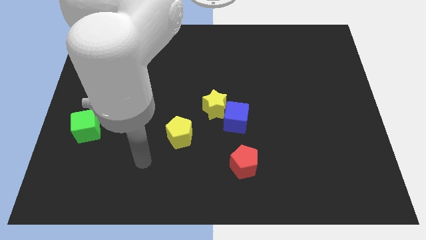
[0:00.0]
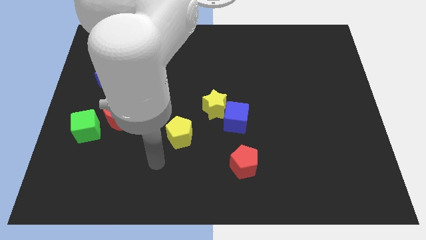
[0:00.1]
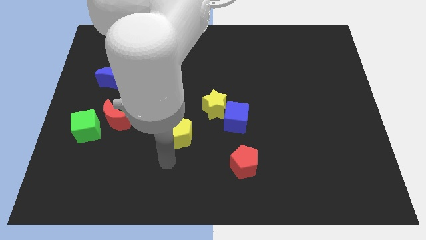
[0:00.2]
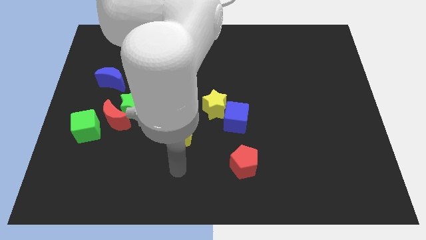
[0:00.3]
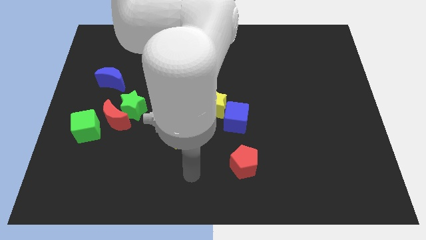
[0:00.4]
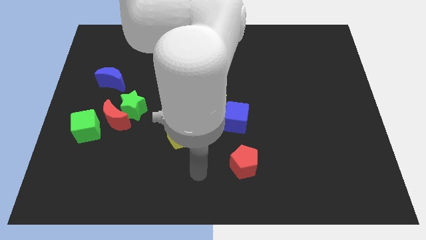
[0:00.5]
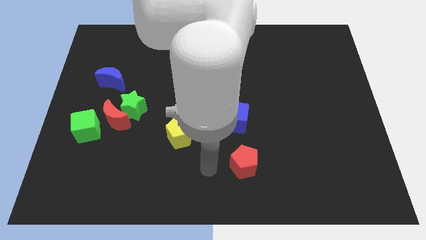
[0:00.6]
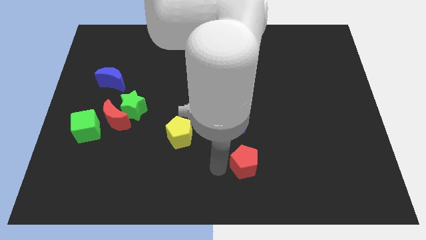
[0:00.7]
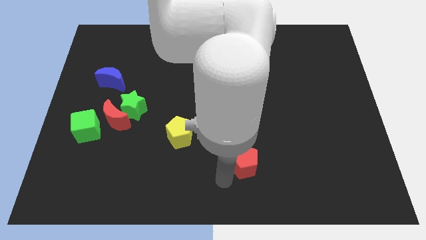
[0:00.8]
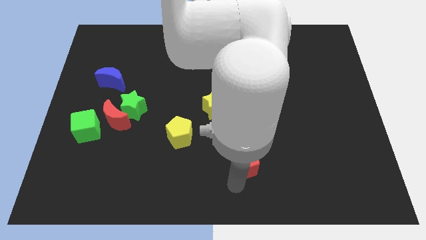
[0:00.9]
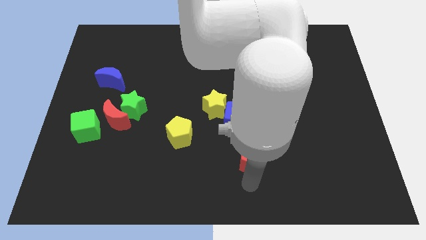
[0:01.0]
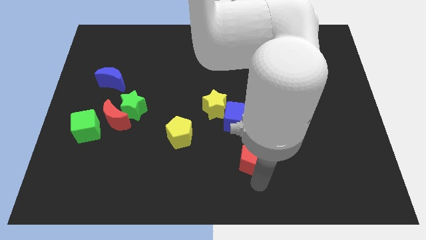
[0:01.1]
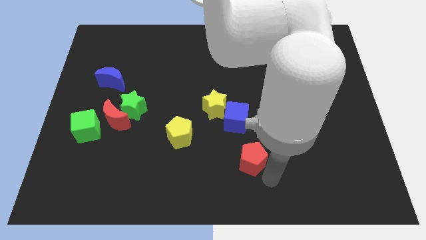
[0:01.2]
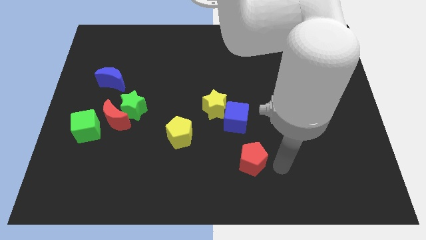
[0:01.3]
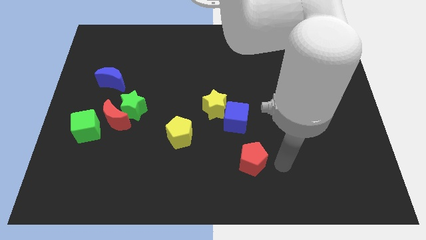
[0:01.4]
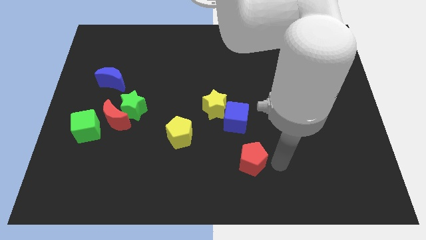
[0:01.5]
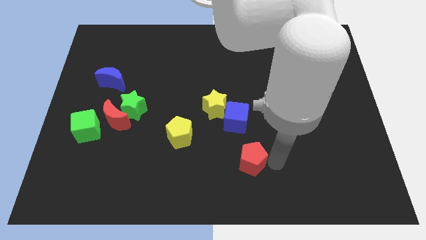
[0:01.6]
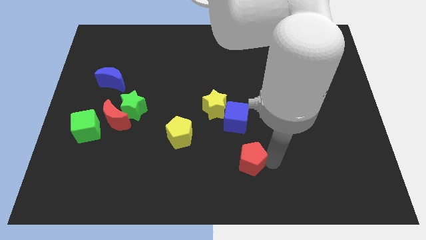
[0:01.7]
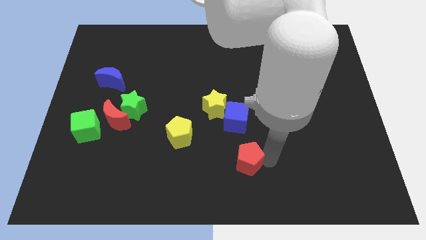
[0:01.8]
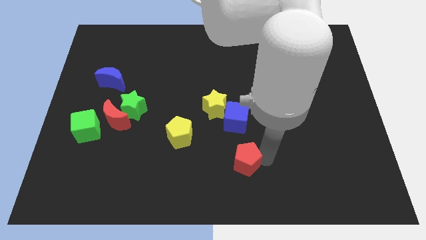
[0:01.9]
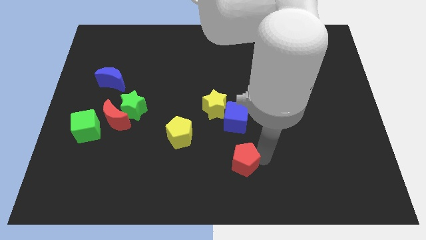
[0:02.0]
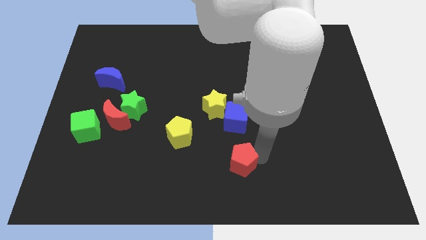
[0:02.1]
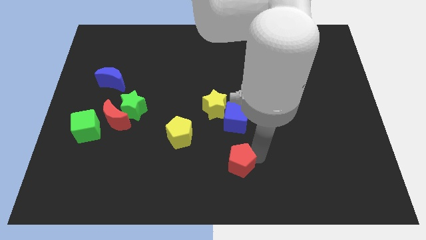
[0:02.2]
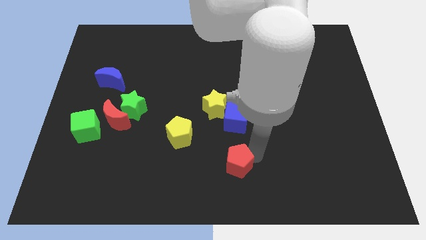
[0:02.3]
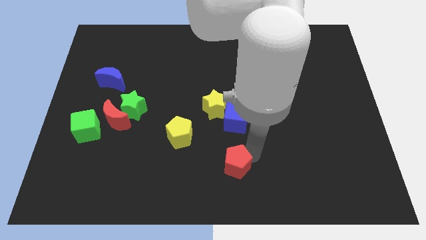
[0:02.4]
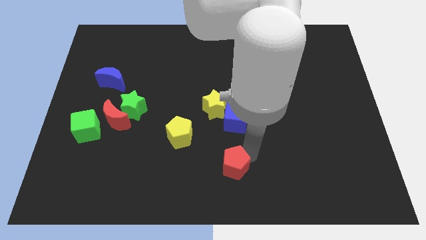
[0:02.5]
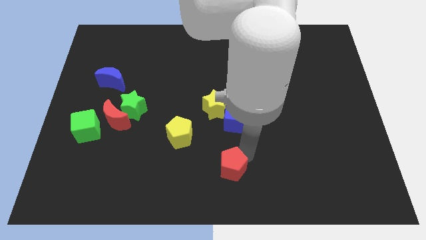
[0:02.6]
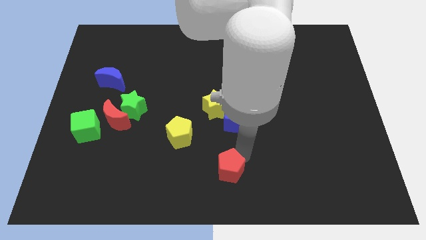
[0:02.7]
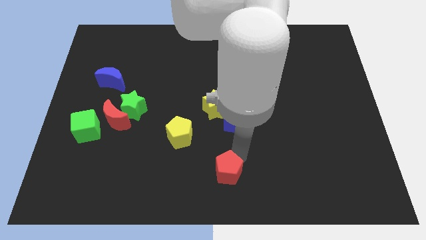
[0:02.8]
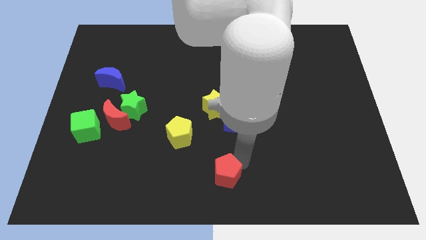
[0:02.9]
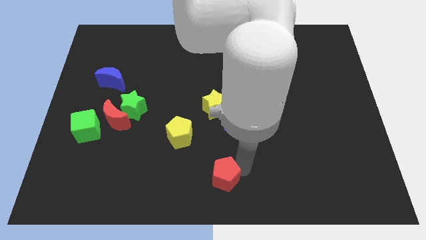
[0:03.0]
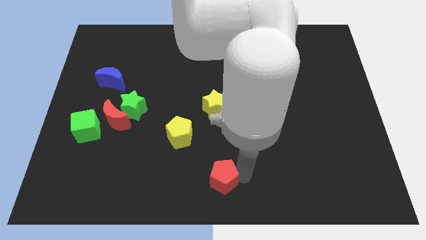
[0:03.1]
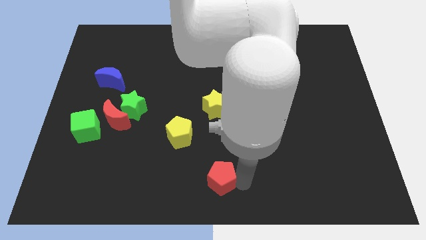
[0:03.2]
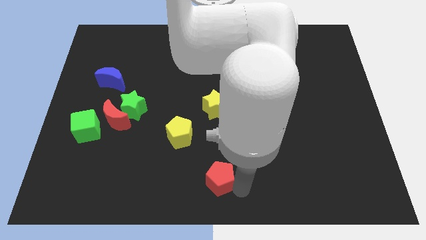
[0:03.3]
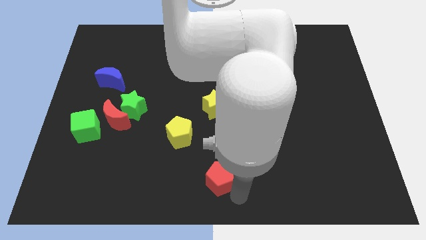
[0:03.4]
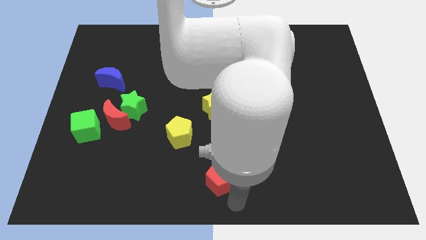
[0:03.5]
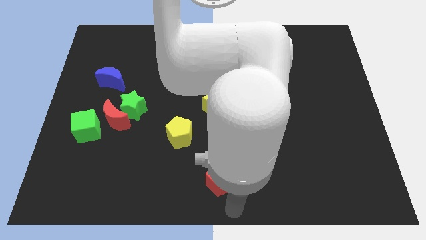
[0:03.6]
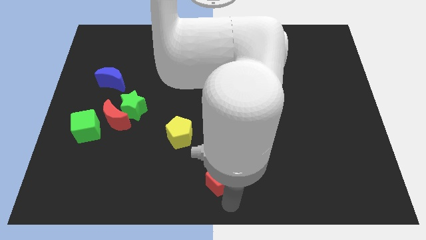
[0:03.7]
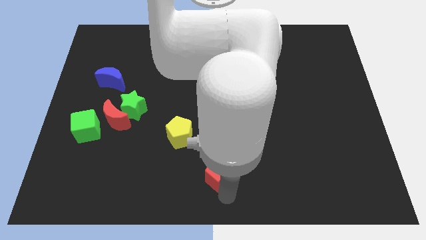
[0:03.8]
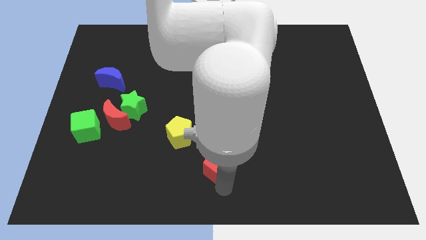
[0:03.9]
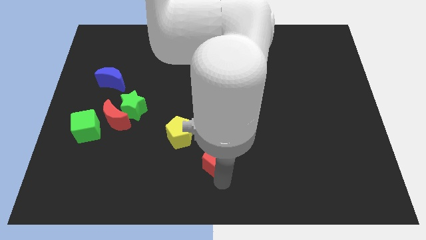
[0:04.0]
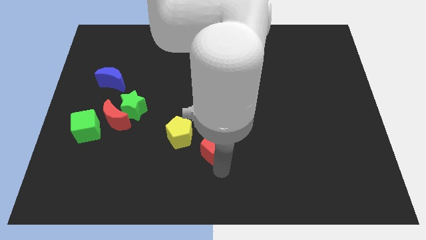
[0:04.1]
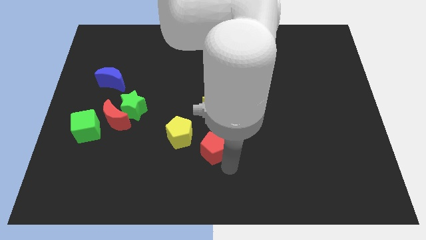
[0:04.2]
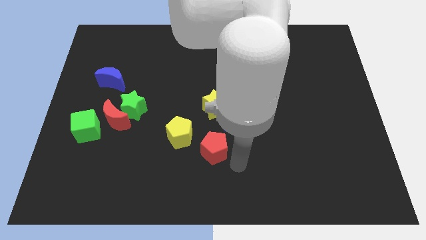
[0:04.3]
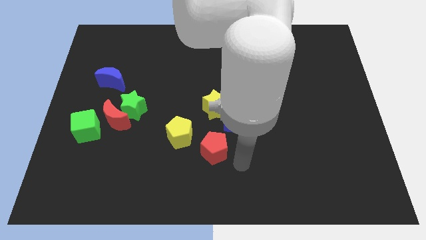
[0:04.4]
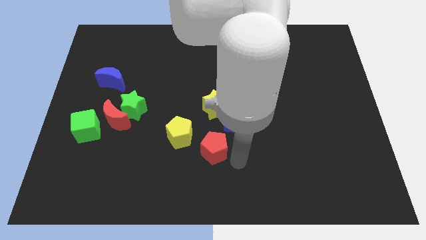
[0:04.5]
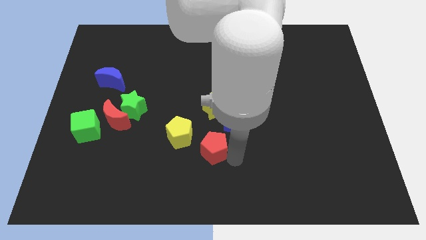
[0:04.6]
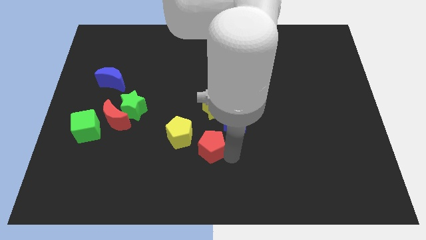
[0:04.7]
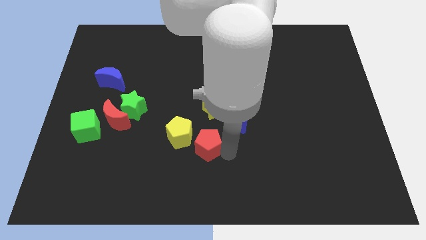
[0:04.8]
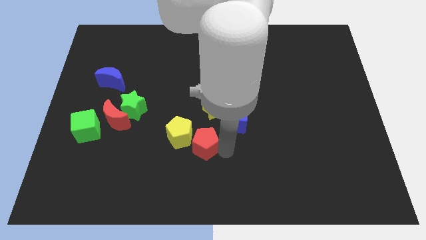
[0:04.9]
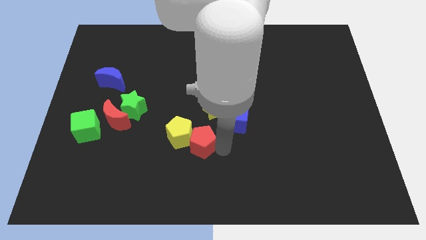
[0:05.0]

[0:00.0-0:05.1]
push the red pentagon close to the yellow pentagon

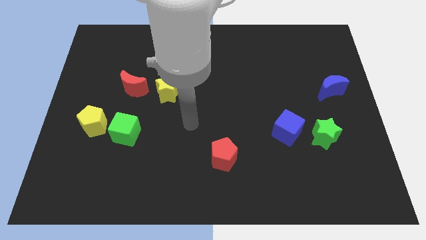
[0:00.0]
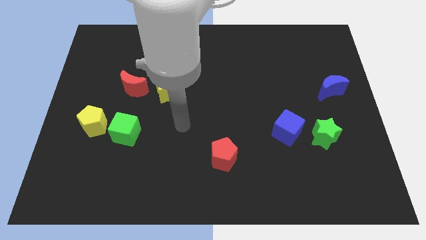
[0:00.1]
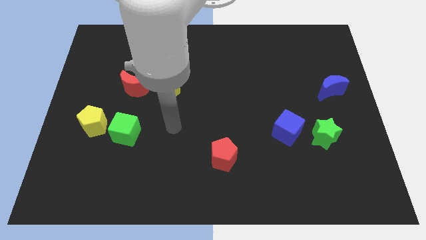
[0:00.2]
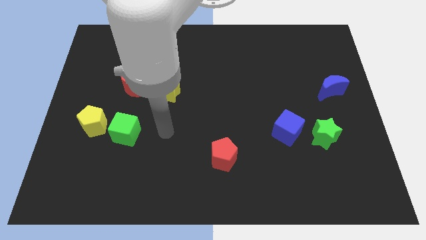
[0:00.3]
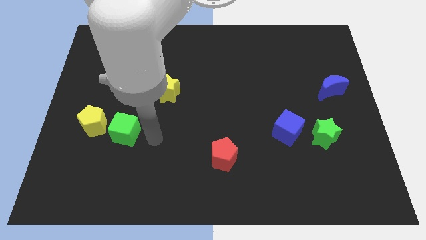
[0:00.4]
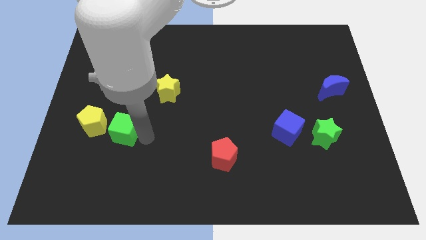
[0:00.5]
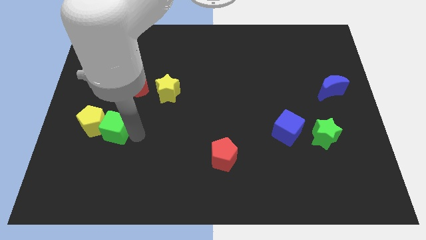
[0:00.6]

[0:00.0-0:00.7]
put the green cube close to the yellow pentagon

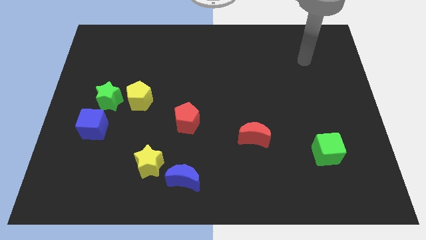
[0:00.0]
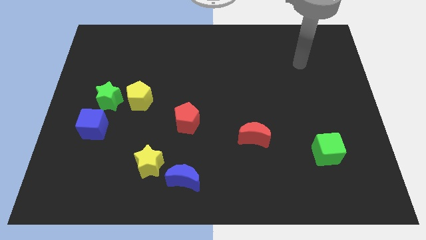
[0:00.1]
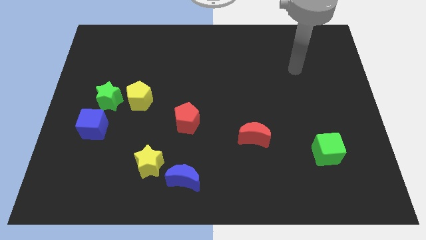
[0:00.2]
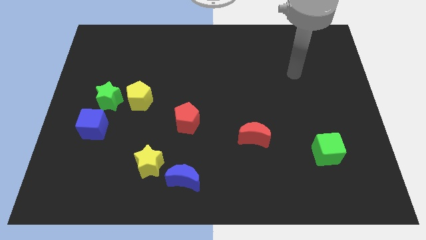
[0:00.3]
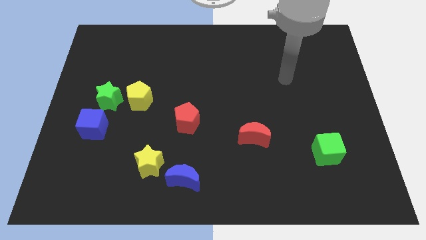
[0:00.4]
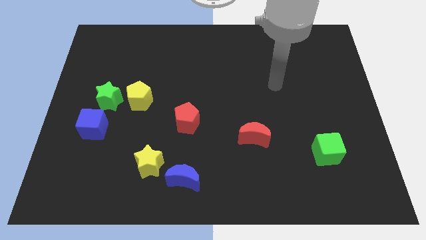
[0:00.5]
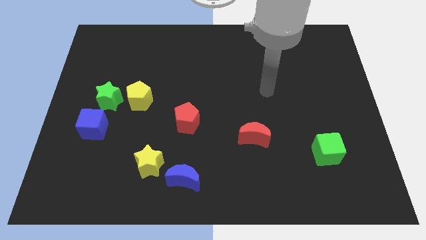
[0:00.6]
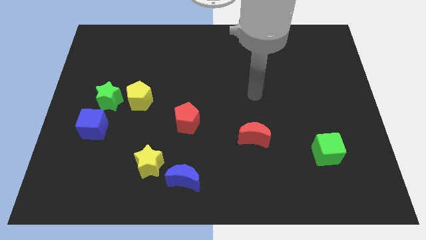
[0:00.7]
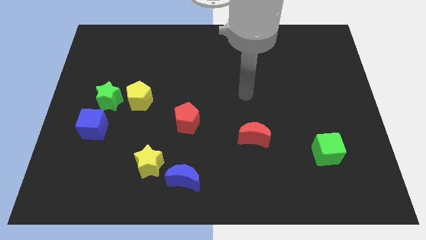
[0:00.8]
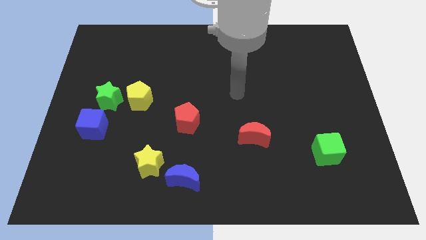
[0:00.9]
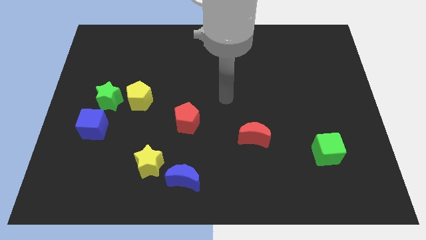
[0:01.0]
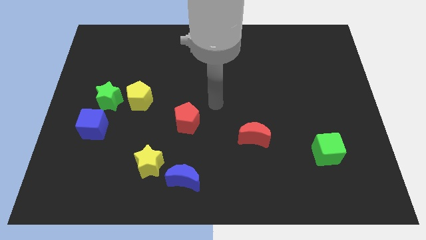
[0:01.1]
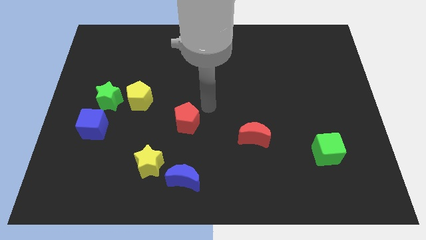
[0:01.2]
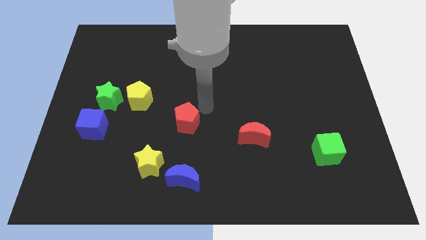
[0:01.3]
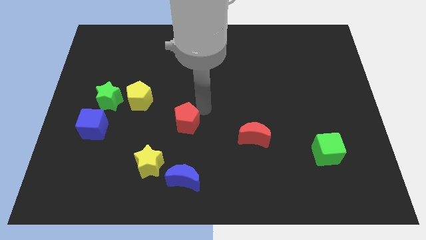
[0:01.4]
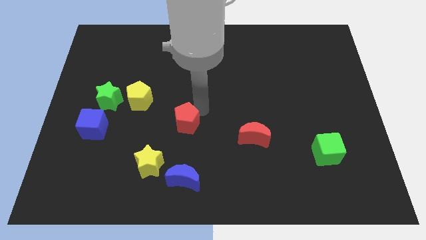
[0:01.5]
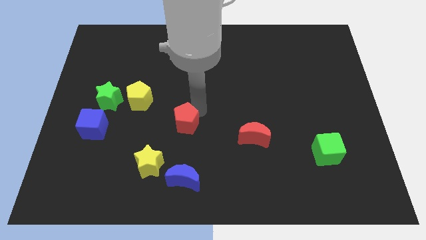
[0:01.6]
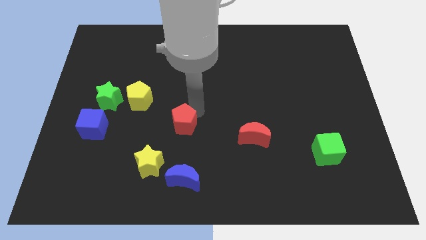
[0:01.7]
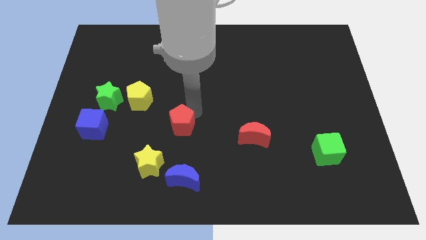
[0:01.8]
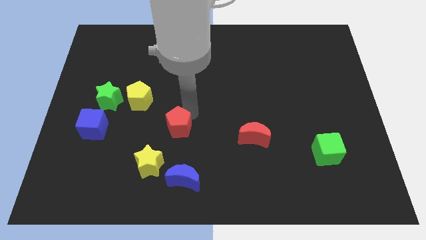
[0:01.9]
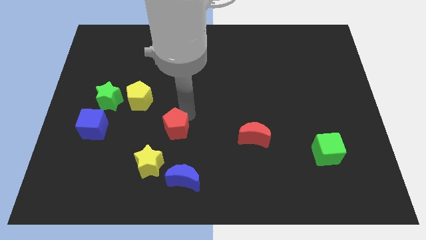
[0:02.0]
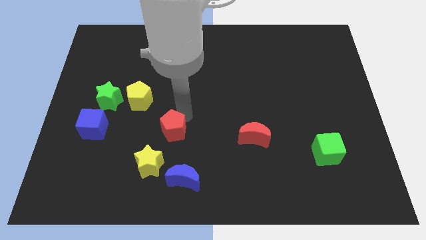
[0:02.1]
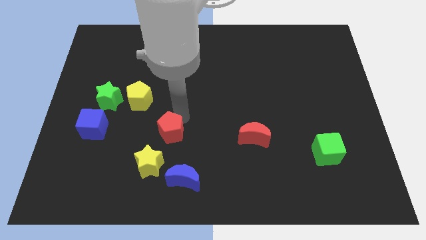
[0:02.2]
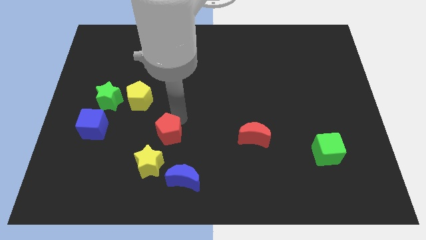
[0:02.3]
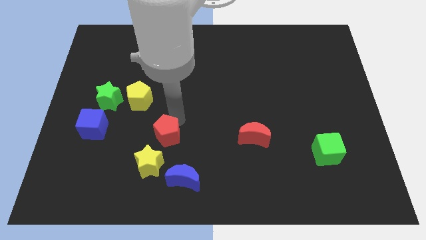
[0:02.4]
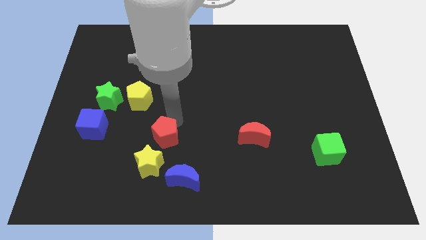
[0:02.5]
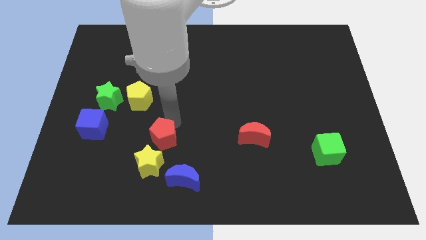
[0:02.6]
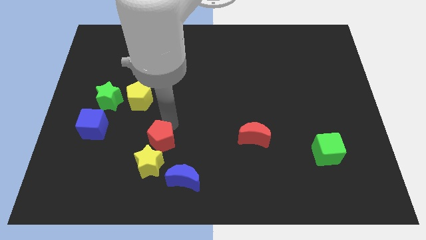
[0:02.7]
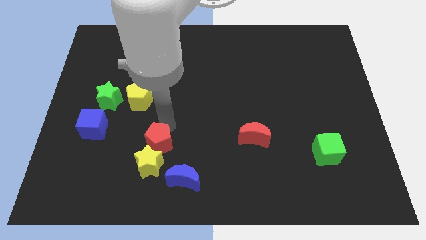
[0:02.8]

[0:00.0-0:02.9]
push the red pentagon to the yellow star
